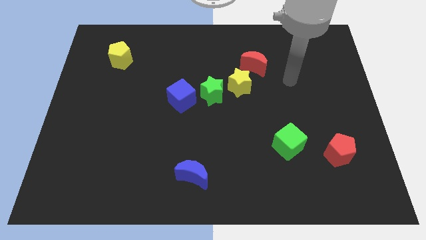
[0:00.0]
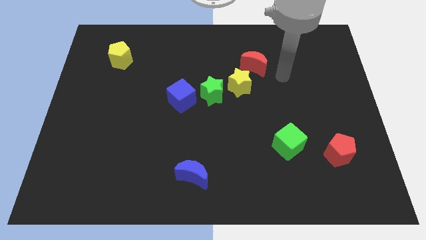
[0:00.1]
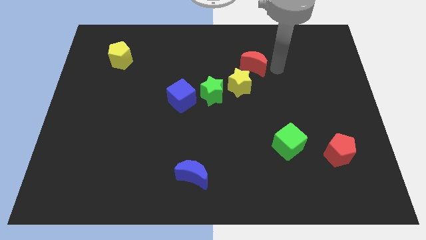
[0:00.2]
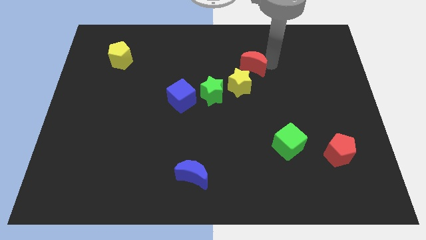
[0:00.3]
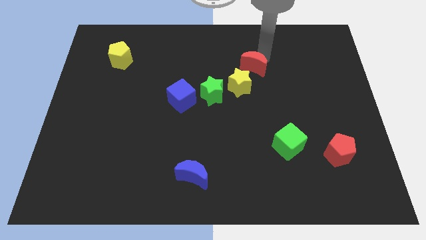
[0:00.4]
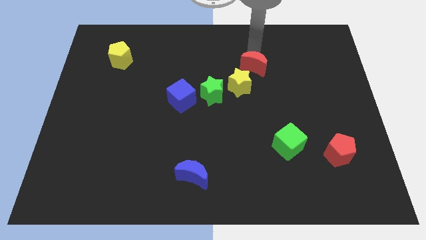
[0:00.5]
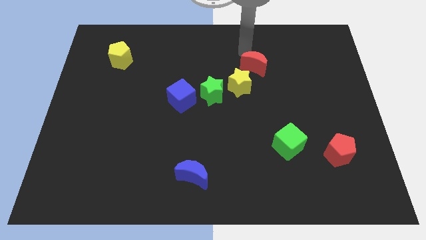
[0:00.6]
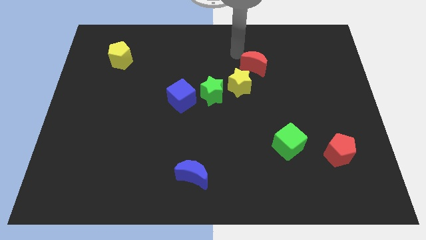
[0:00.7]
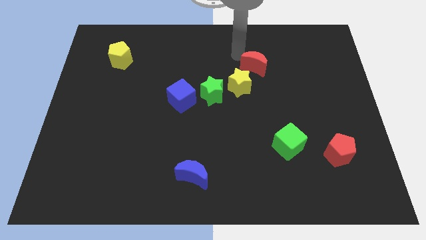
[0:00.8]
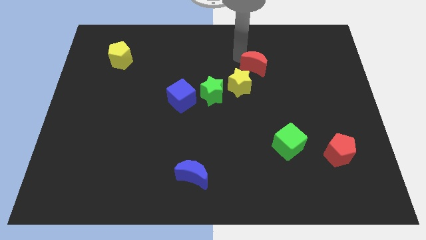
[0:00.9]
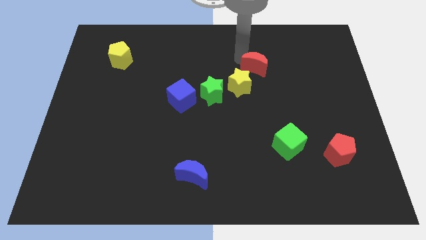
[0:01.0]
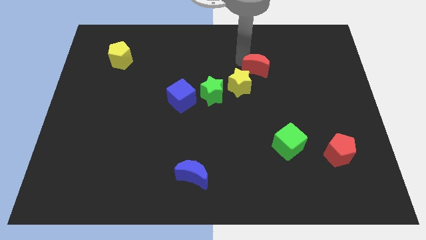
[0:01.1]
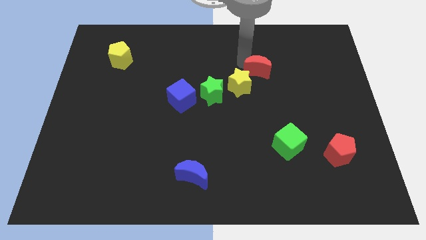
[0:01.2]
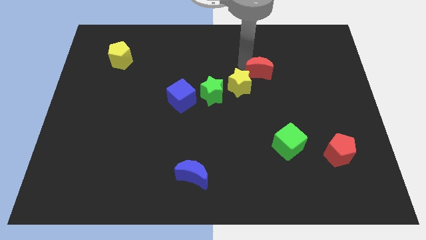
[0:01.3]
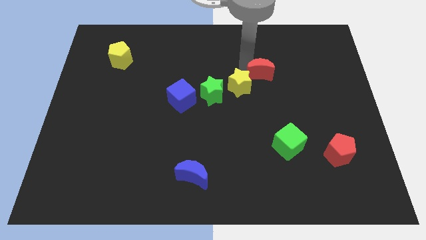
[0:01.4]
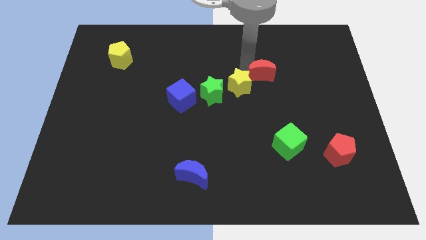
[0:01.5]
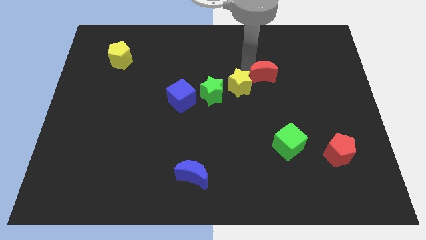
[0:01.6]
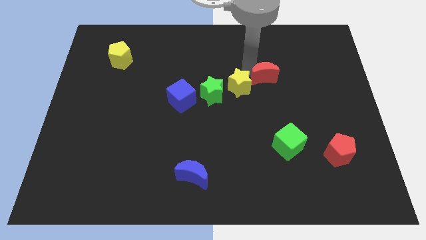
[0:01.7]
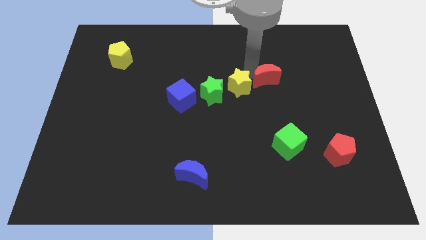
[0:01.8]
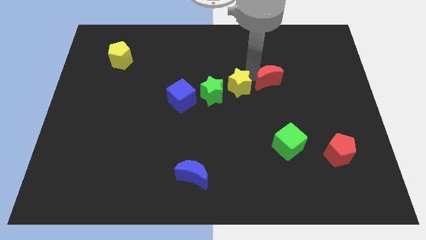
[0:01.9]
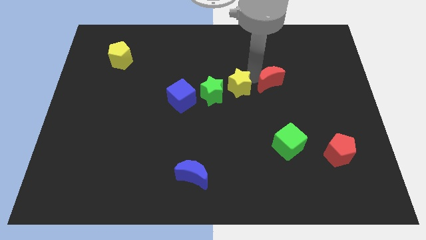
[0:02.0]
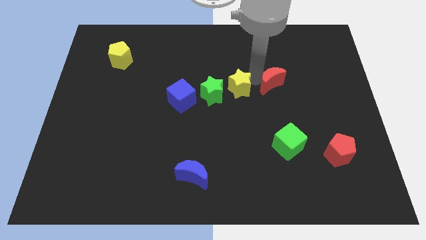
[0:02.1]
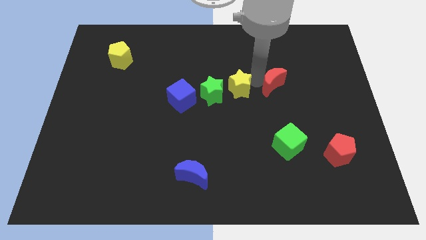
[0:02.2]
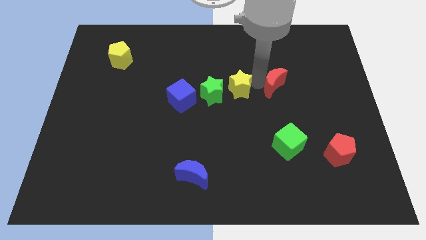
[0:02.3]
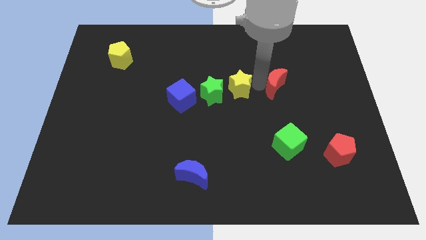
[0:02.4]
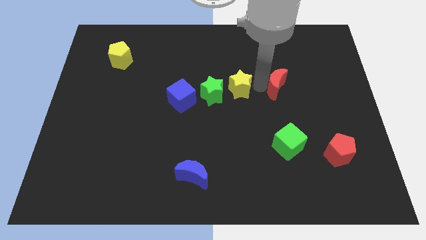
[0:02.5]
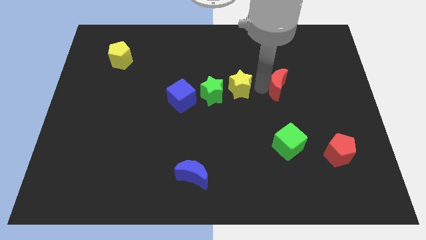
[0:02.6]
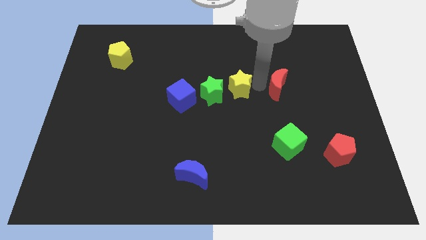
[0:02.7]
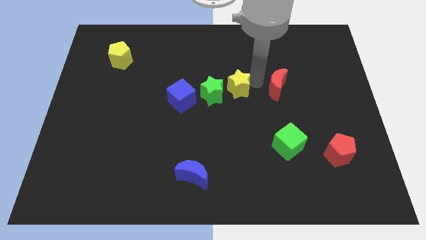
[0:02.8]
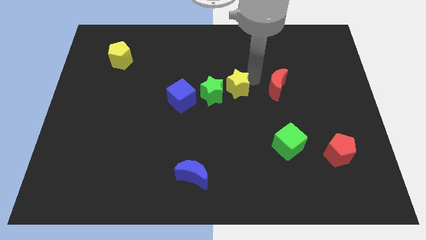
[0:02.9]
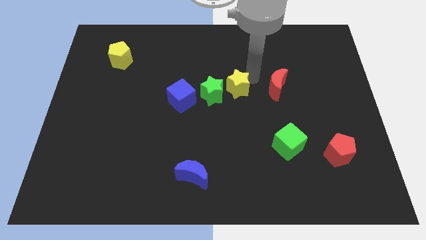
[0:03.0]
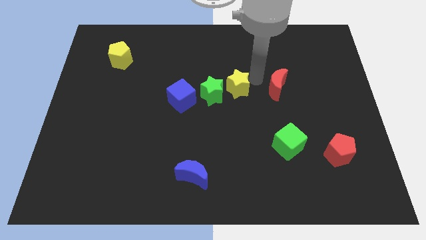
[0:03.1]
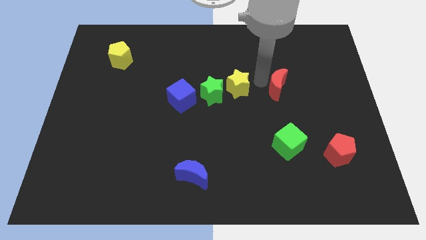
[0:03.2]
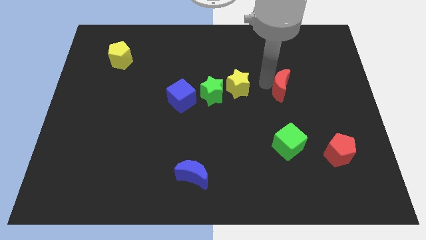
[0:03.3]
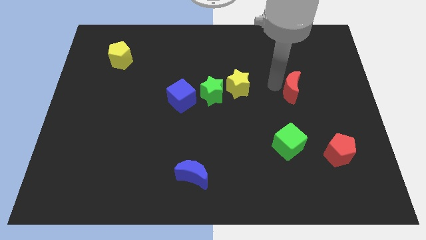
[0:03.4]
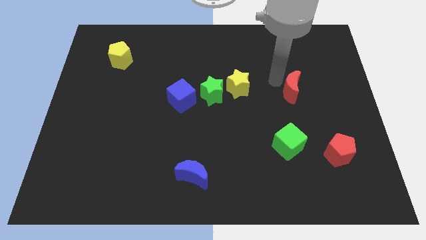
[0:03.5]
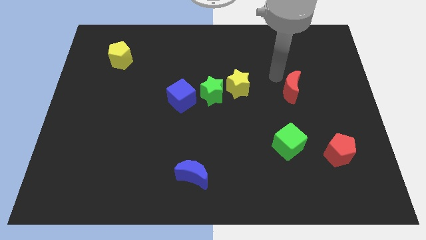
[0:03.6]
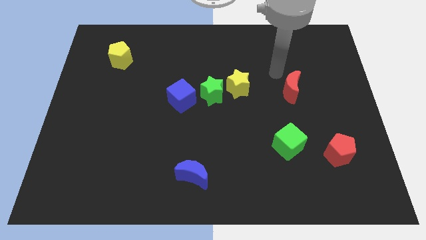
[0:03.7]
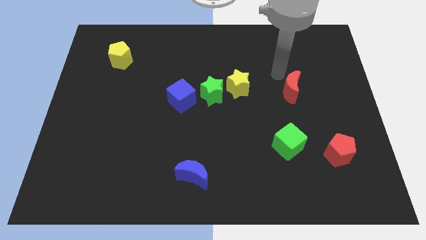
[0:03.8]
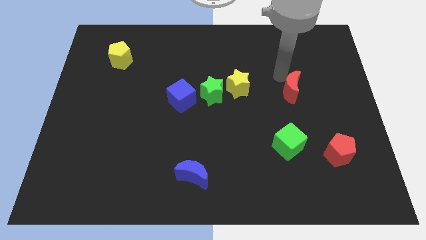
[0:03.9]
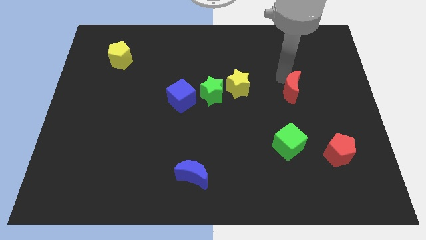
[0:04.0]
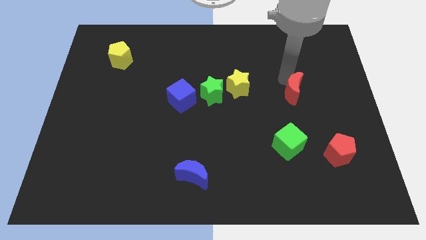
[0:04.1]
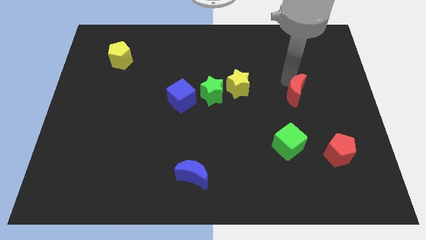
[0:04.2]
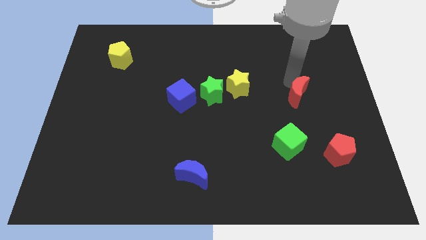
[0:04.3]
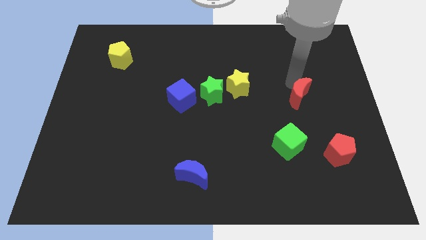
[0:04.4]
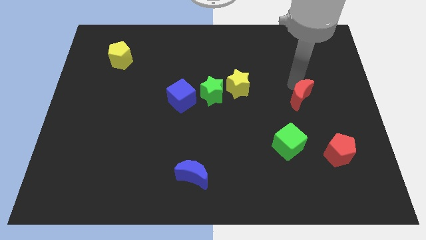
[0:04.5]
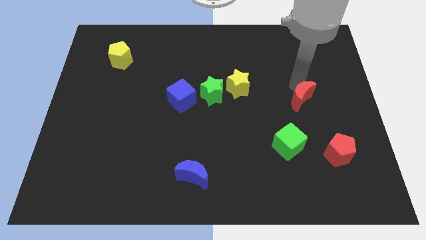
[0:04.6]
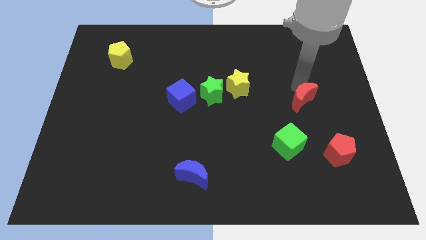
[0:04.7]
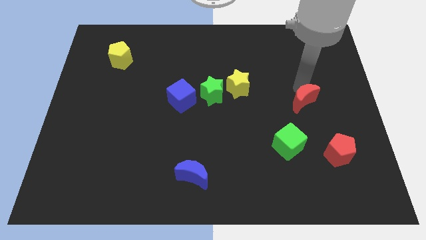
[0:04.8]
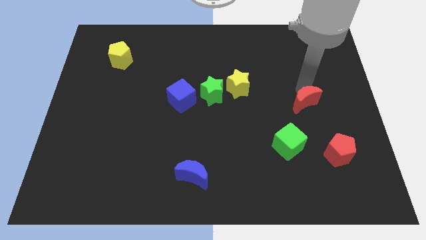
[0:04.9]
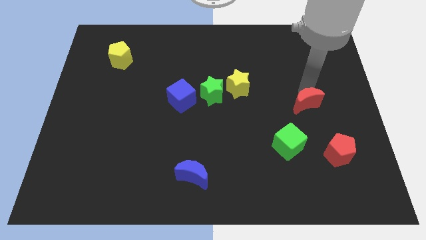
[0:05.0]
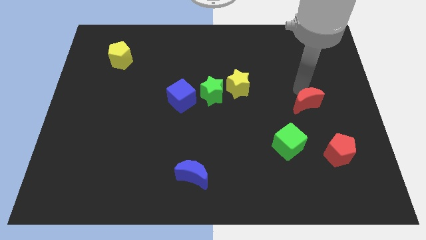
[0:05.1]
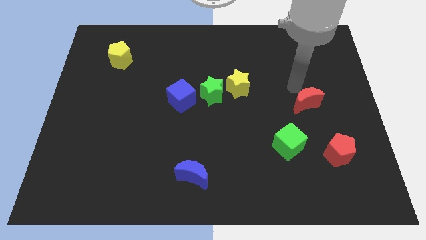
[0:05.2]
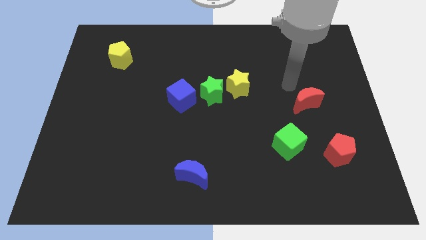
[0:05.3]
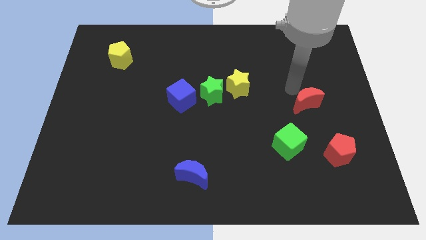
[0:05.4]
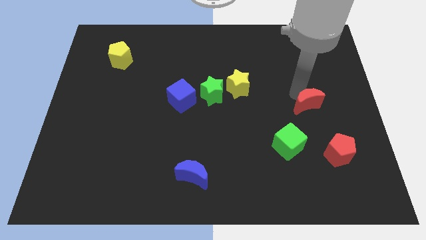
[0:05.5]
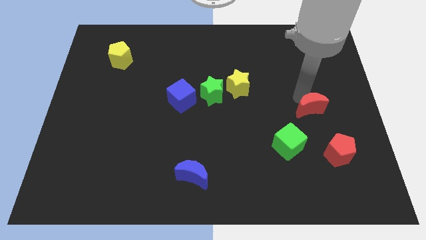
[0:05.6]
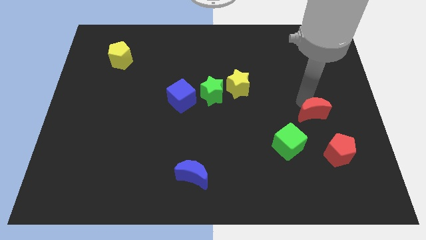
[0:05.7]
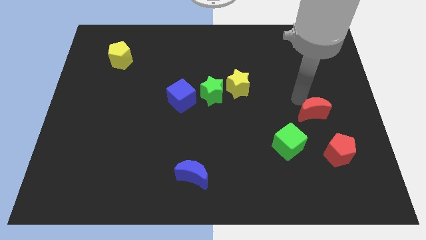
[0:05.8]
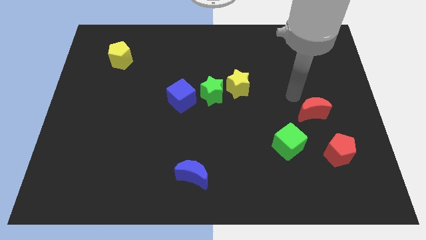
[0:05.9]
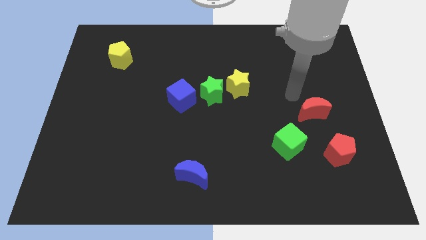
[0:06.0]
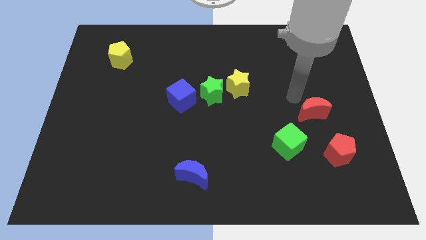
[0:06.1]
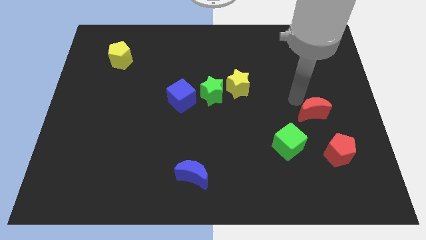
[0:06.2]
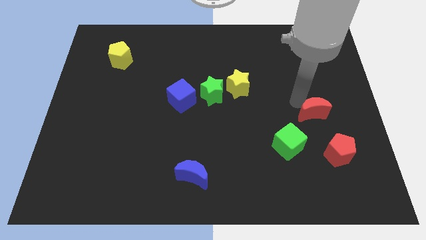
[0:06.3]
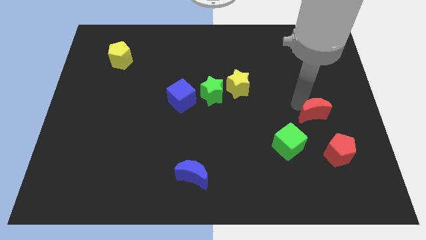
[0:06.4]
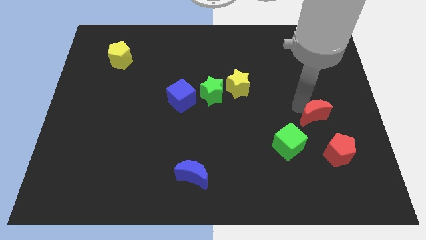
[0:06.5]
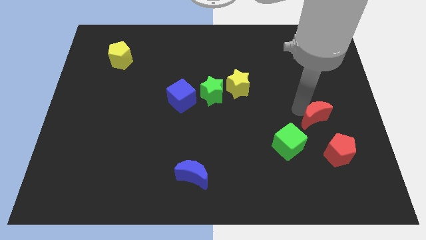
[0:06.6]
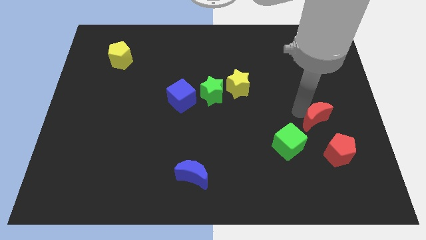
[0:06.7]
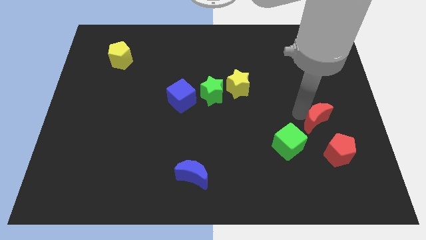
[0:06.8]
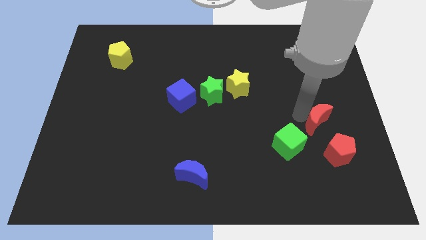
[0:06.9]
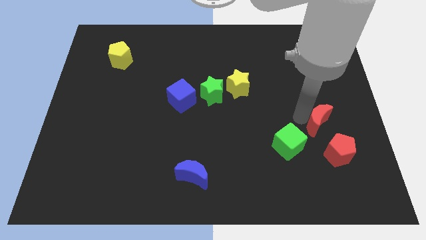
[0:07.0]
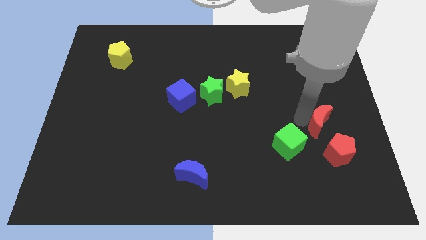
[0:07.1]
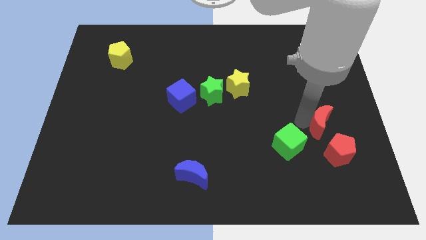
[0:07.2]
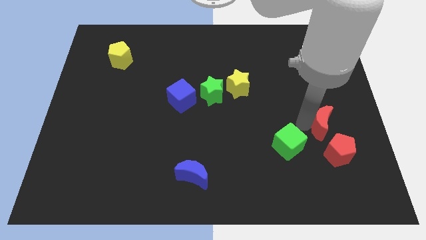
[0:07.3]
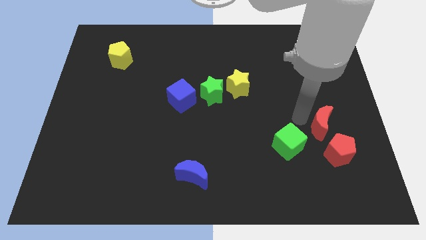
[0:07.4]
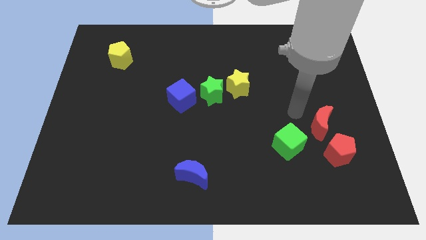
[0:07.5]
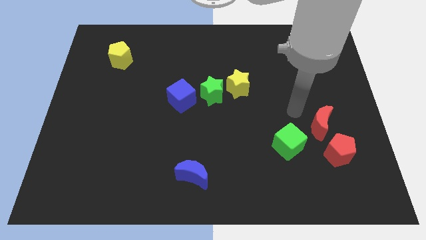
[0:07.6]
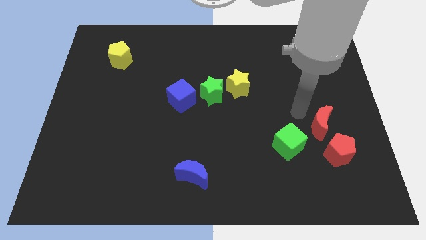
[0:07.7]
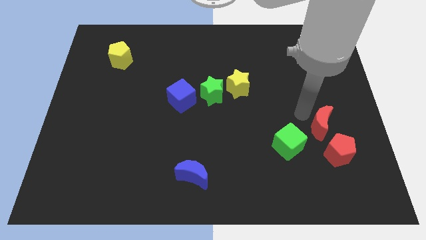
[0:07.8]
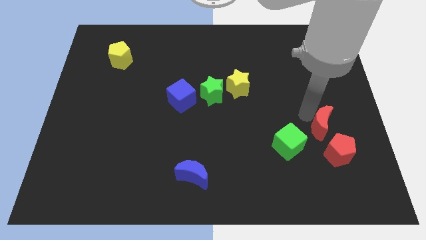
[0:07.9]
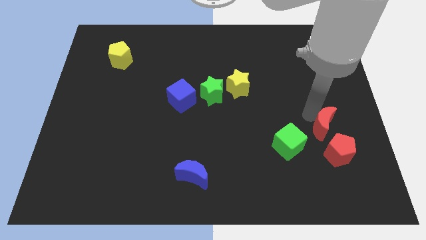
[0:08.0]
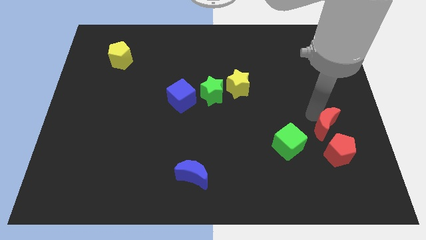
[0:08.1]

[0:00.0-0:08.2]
put the red moon right of the green cube

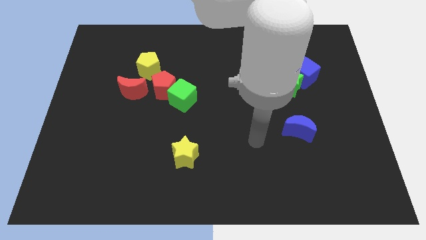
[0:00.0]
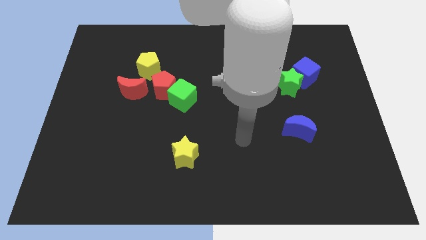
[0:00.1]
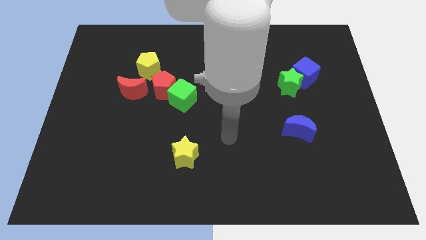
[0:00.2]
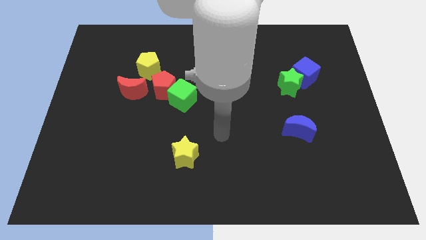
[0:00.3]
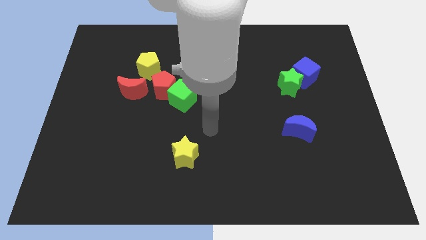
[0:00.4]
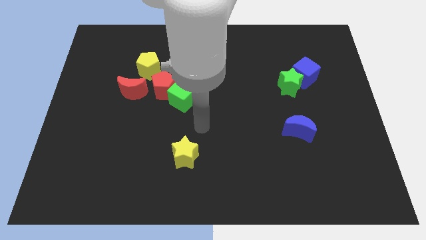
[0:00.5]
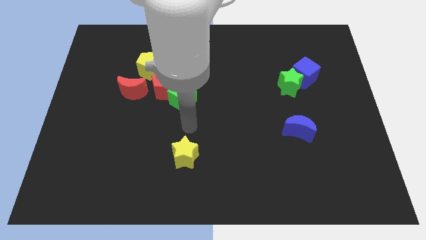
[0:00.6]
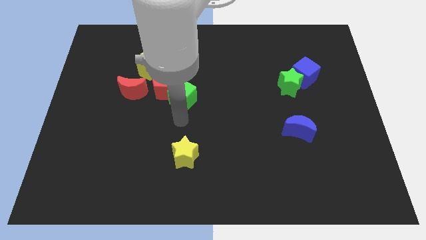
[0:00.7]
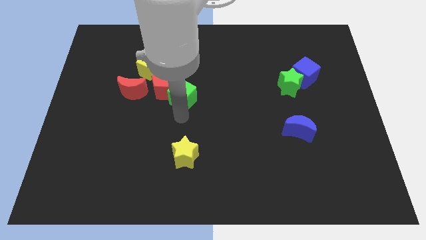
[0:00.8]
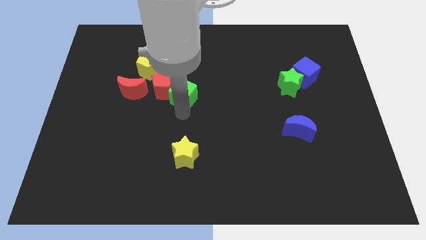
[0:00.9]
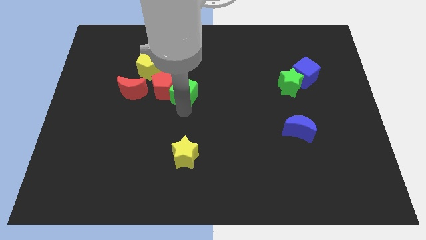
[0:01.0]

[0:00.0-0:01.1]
put the green cube to the top right side of the red pentagon
